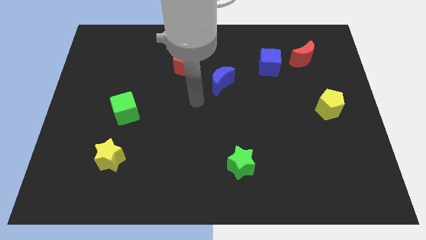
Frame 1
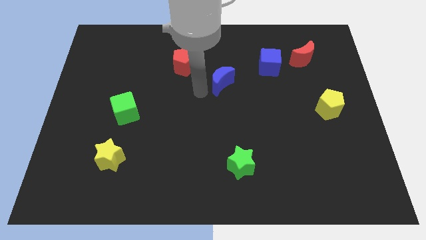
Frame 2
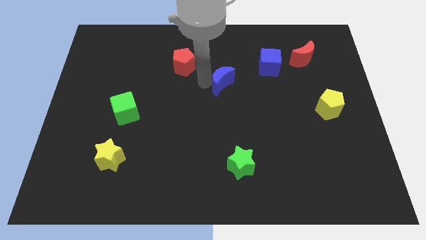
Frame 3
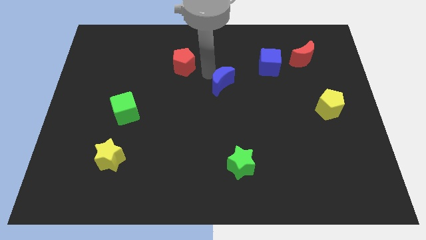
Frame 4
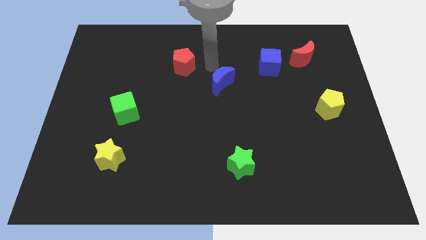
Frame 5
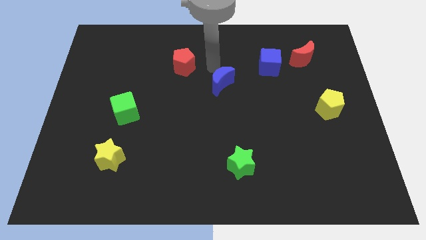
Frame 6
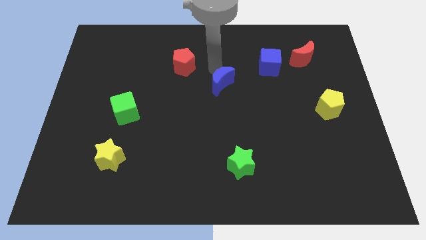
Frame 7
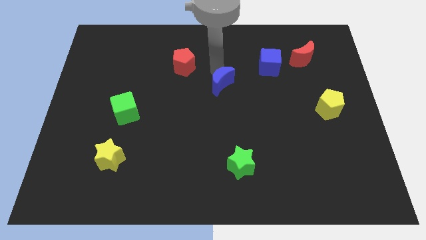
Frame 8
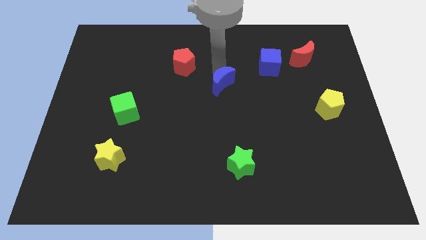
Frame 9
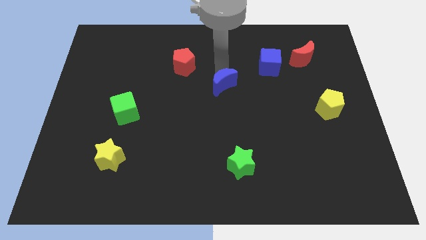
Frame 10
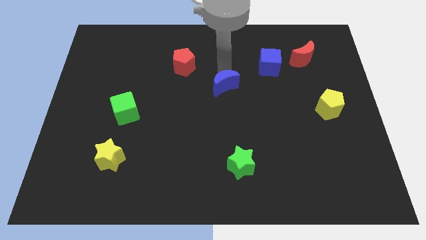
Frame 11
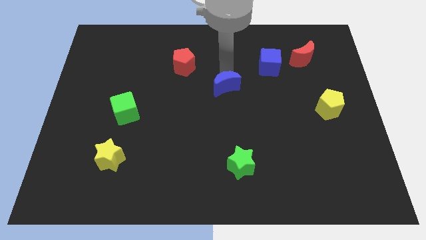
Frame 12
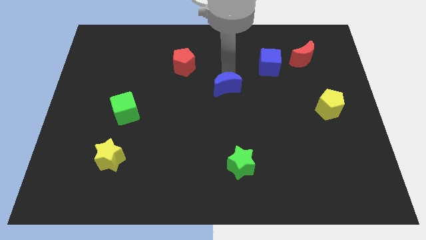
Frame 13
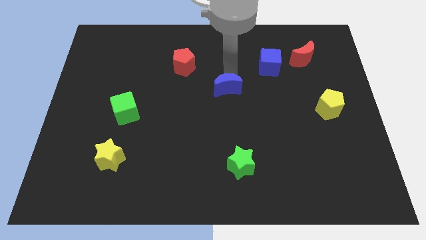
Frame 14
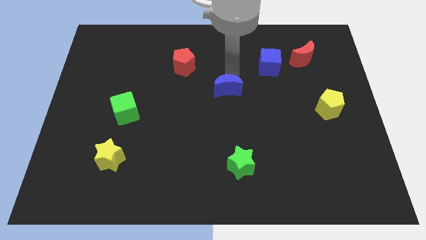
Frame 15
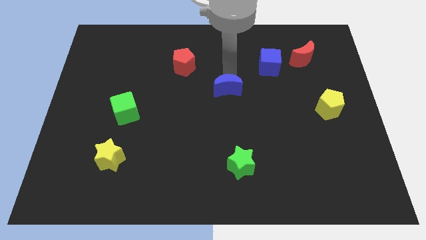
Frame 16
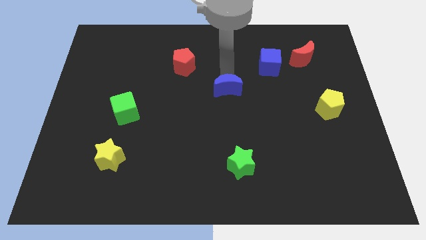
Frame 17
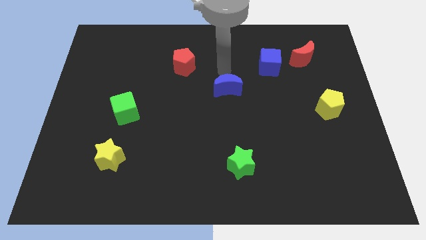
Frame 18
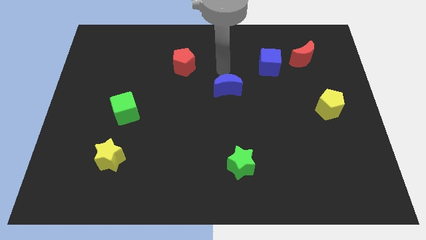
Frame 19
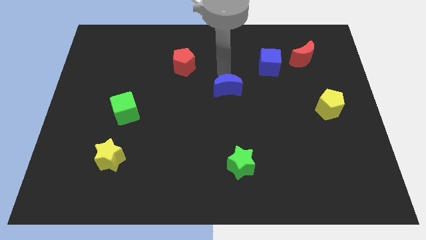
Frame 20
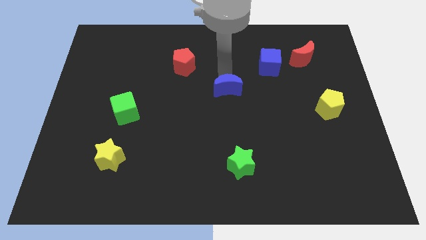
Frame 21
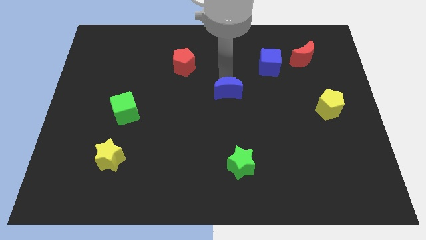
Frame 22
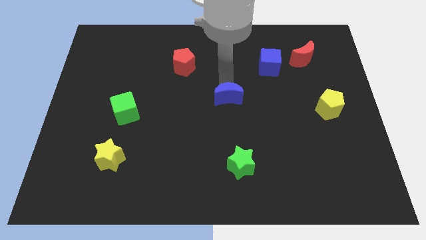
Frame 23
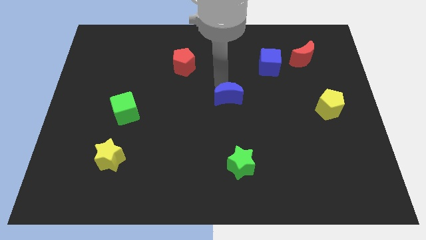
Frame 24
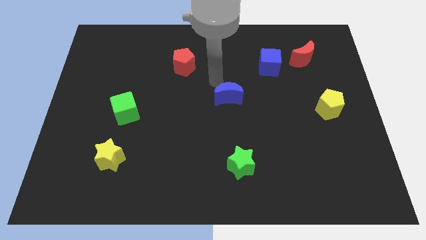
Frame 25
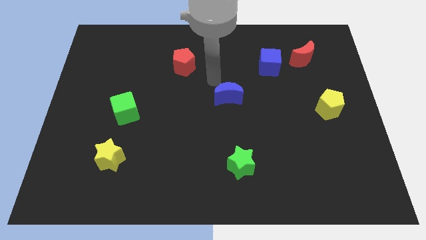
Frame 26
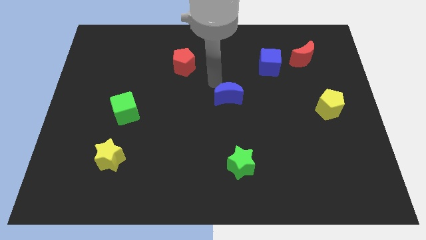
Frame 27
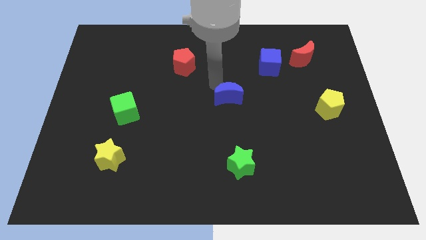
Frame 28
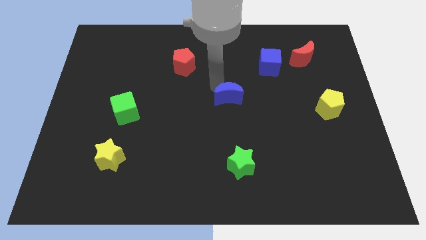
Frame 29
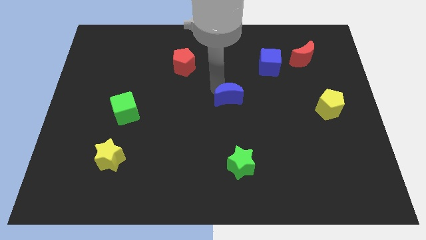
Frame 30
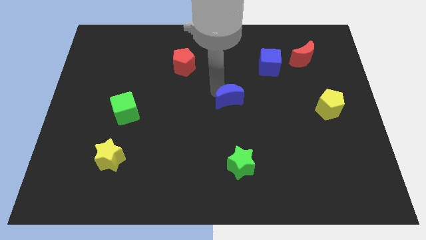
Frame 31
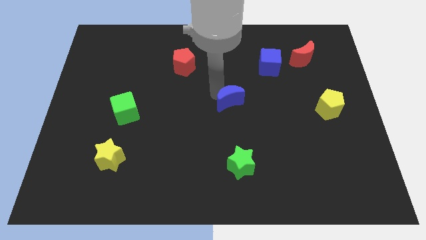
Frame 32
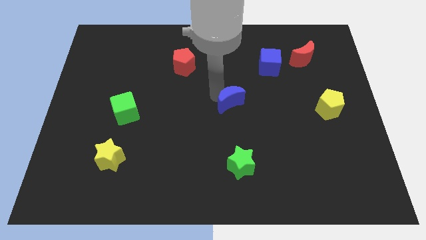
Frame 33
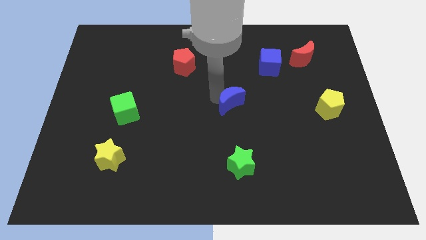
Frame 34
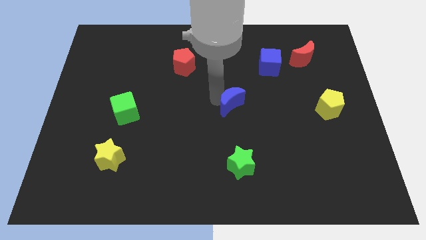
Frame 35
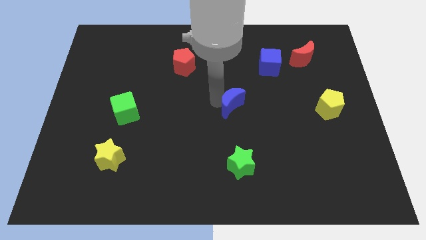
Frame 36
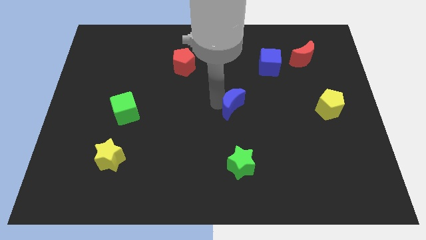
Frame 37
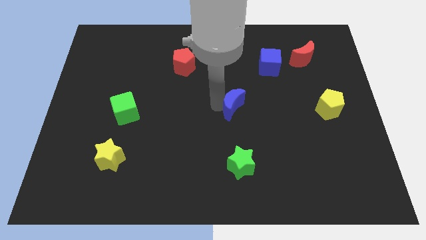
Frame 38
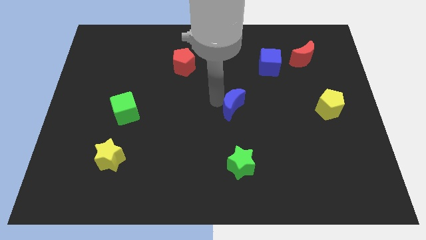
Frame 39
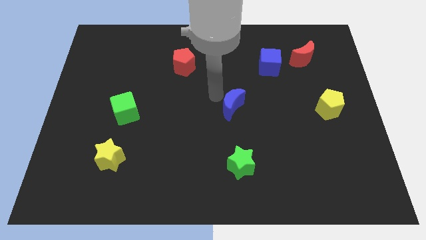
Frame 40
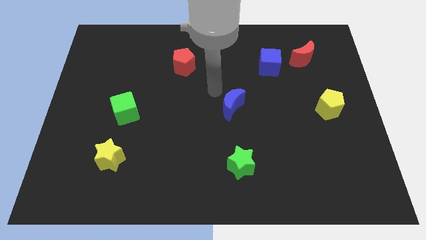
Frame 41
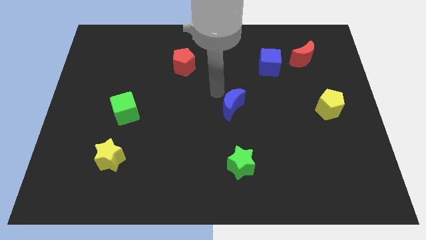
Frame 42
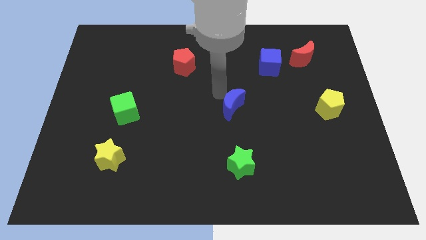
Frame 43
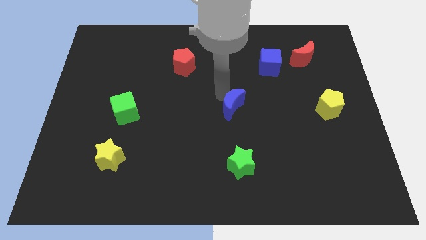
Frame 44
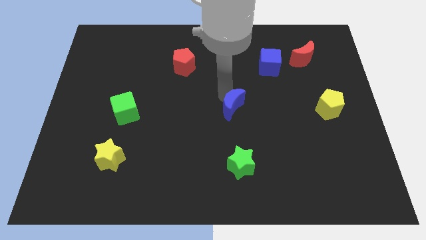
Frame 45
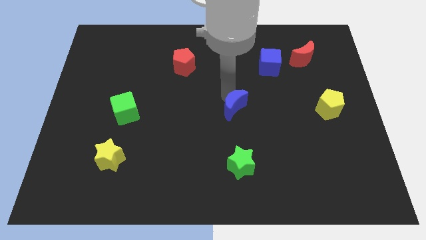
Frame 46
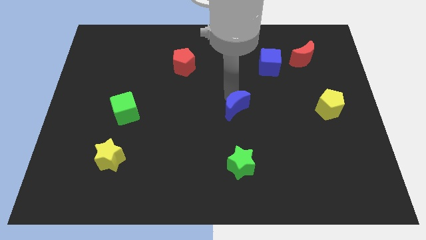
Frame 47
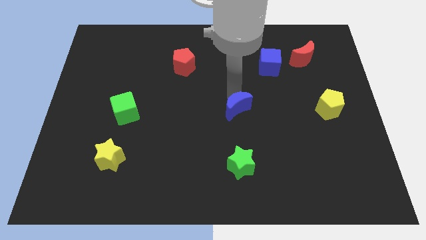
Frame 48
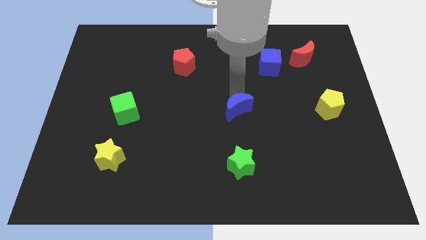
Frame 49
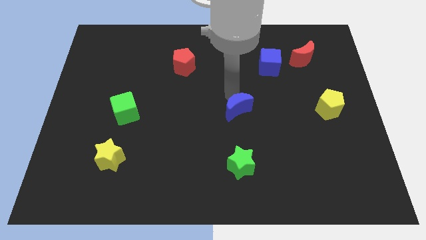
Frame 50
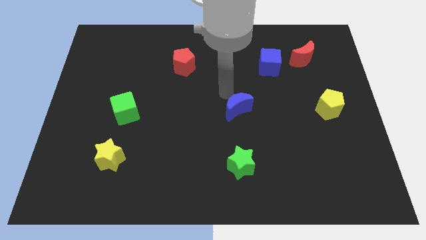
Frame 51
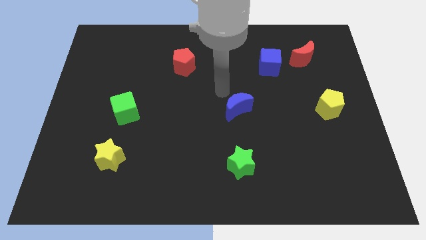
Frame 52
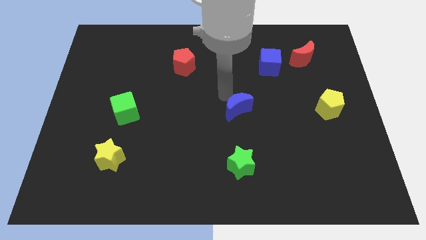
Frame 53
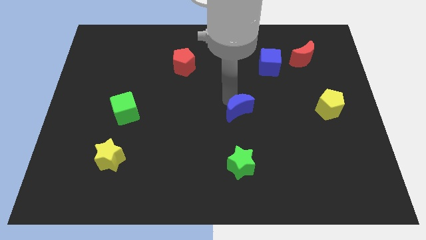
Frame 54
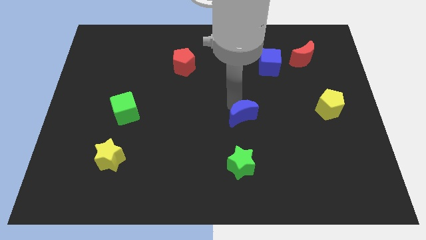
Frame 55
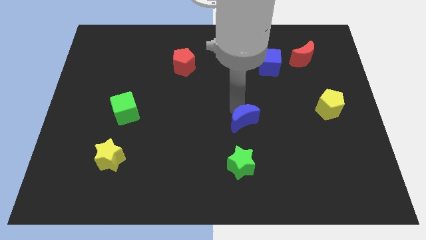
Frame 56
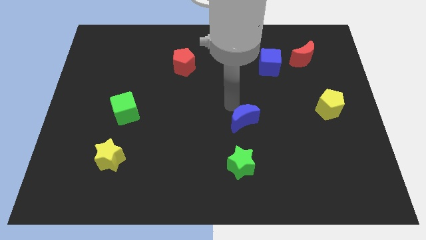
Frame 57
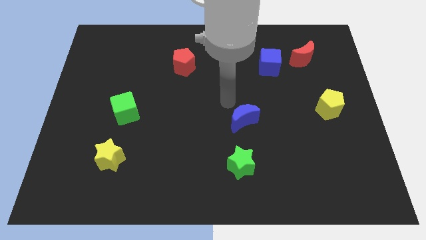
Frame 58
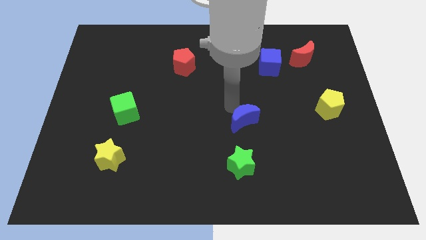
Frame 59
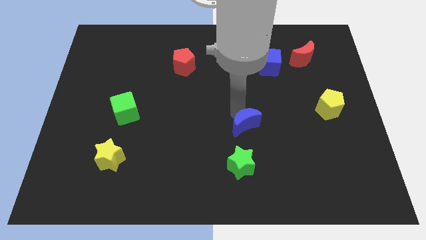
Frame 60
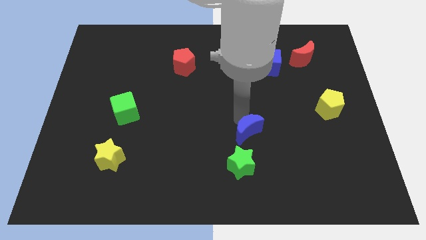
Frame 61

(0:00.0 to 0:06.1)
put the blue moon to the top right of the green star

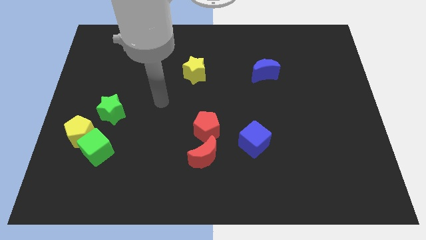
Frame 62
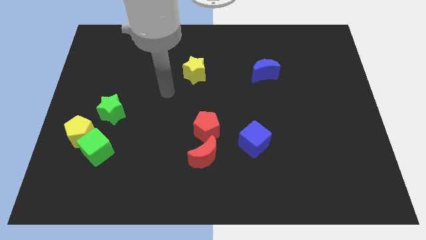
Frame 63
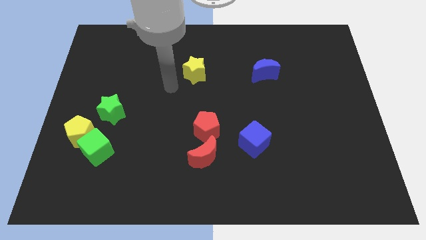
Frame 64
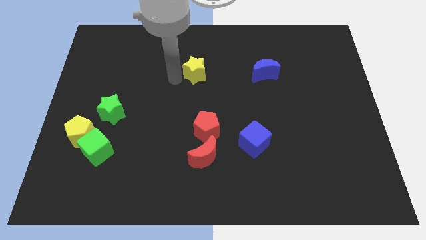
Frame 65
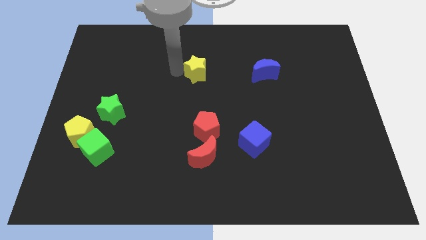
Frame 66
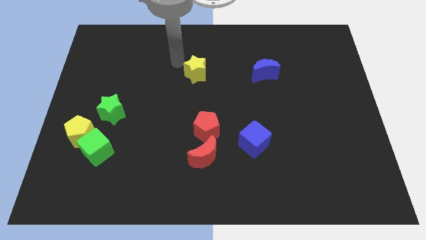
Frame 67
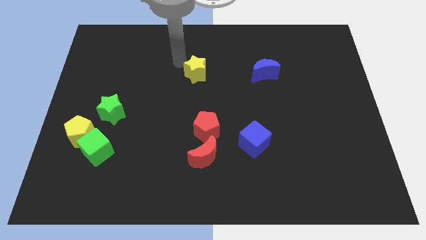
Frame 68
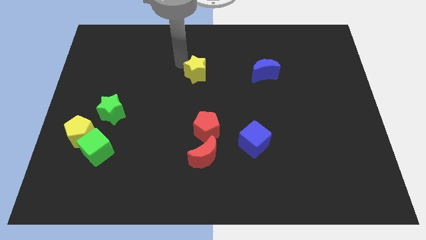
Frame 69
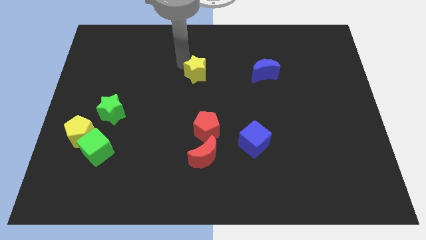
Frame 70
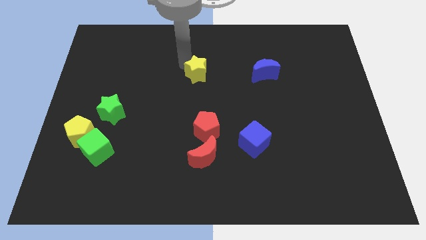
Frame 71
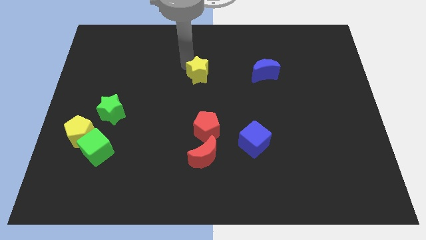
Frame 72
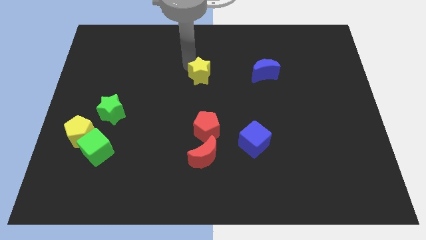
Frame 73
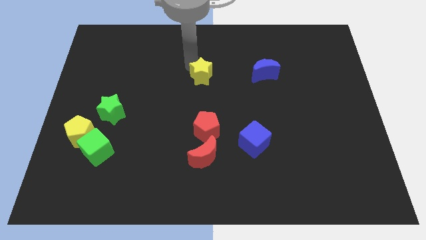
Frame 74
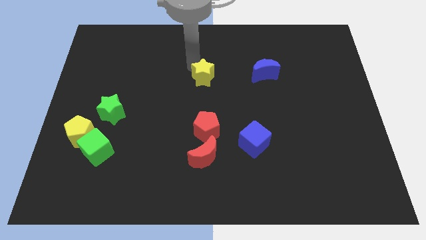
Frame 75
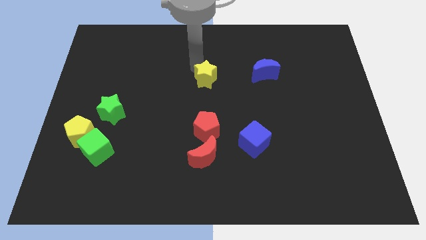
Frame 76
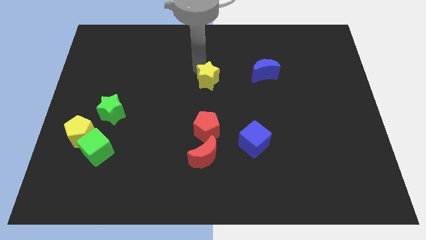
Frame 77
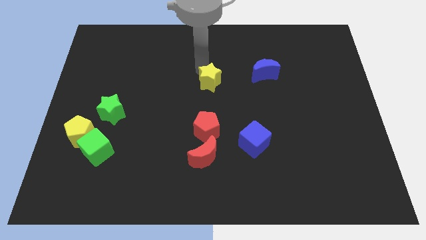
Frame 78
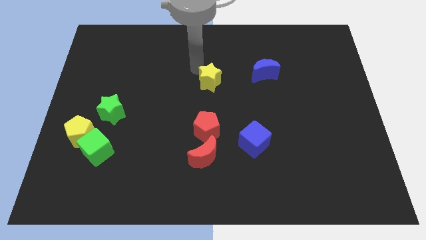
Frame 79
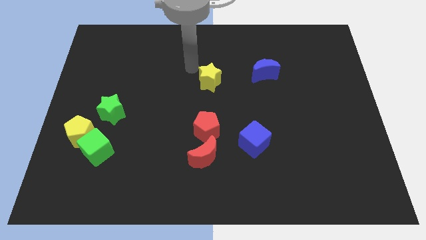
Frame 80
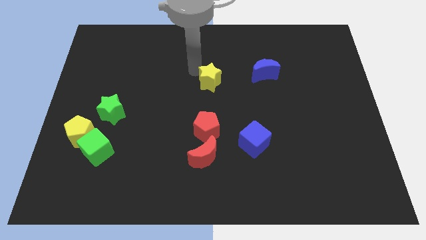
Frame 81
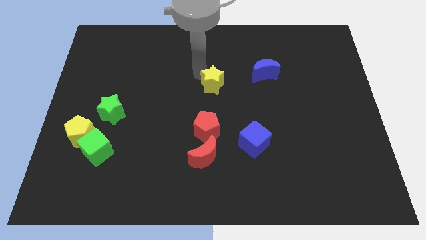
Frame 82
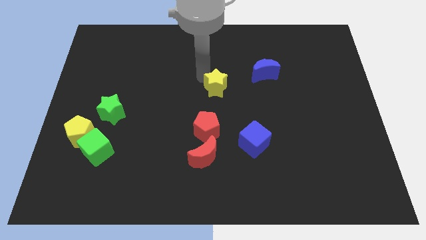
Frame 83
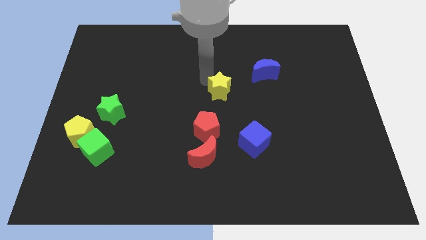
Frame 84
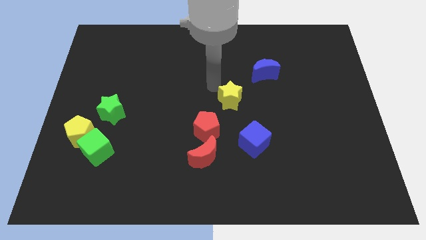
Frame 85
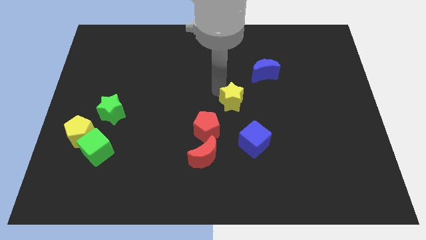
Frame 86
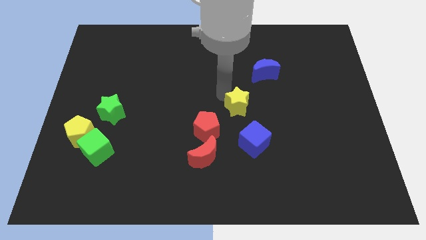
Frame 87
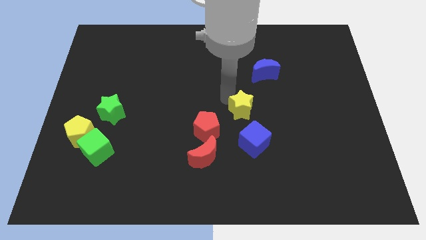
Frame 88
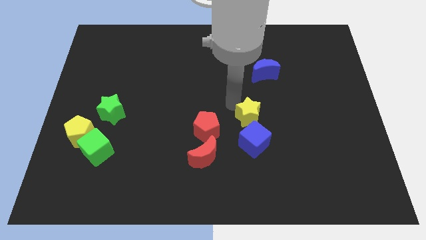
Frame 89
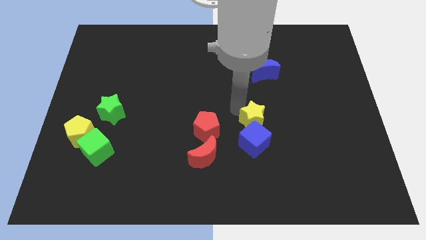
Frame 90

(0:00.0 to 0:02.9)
slide the yellow star to the top right of the blue cube
